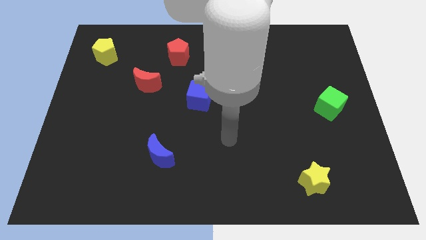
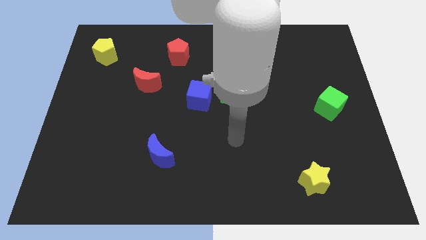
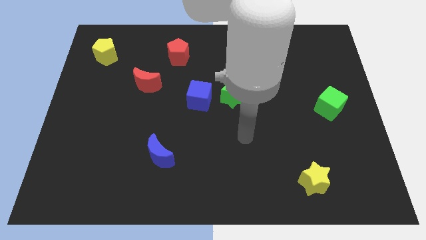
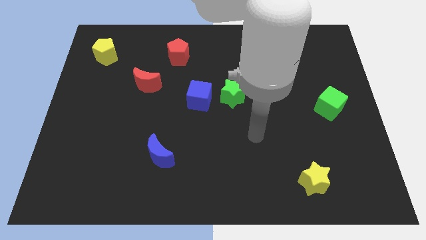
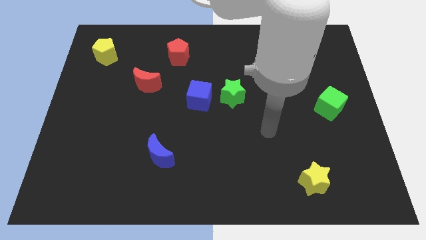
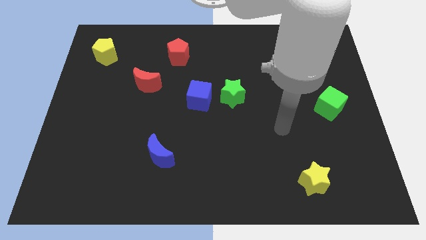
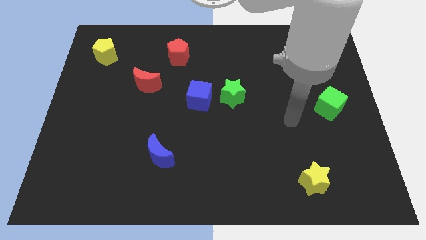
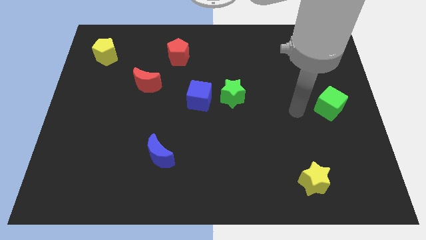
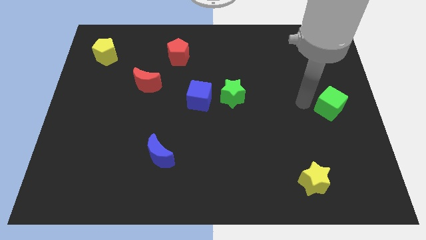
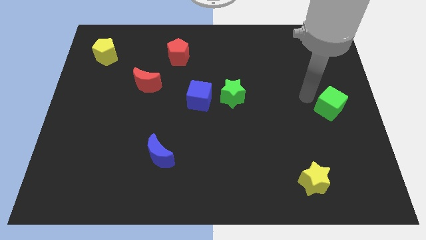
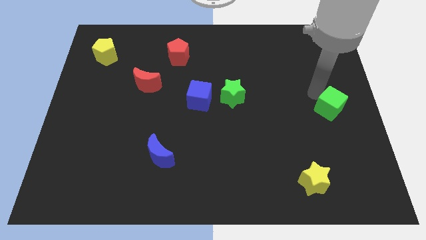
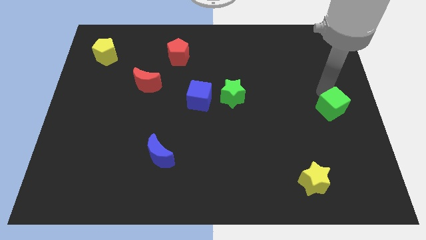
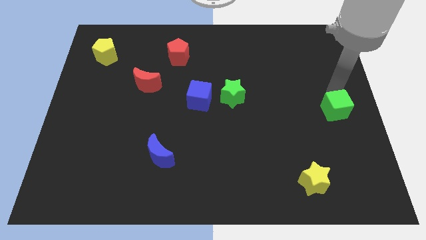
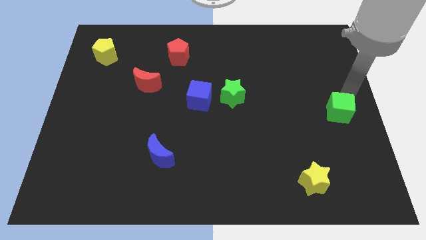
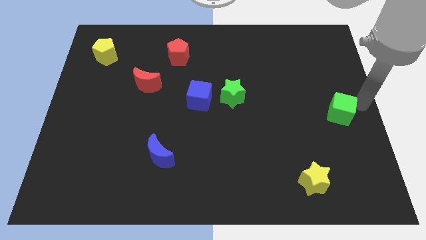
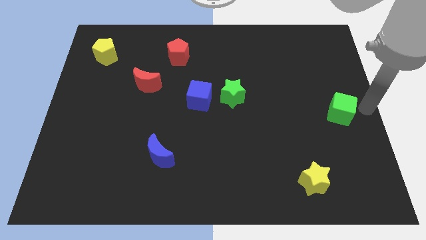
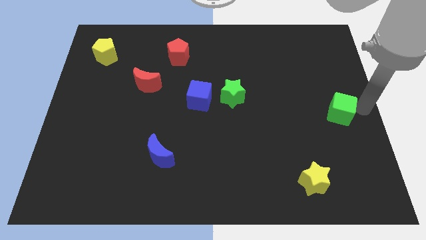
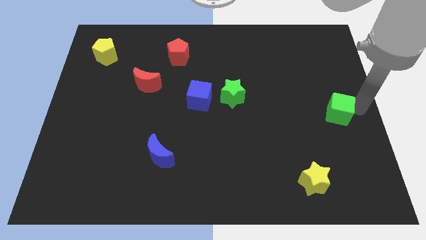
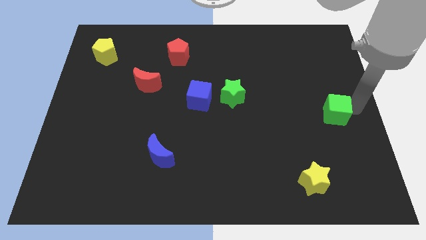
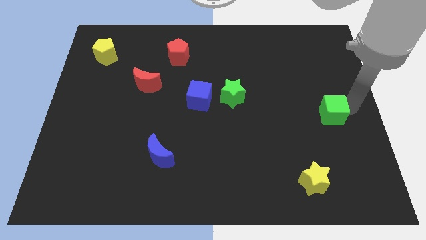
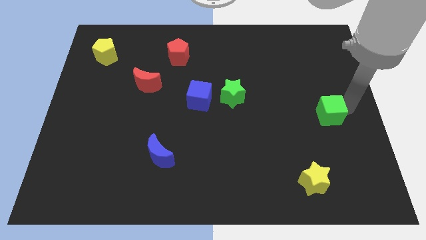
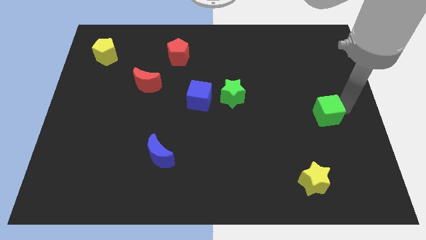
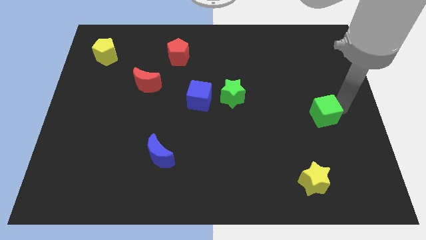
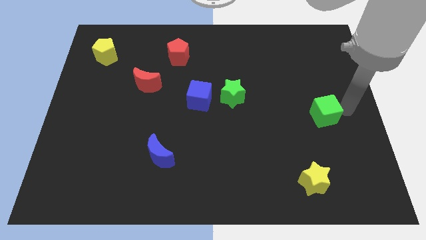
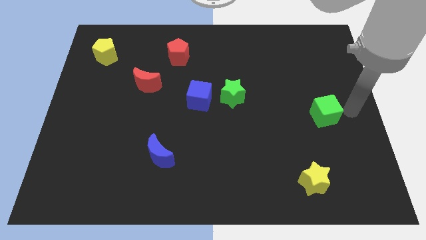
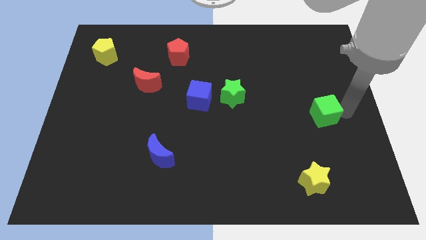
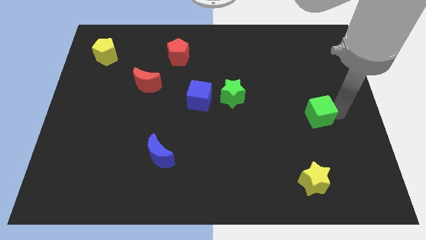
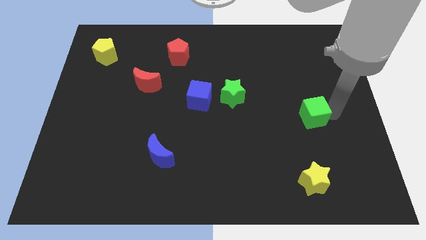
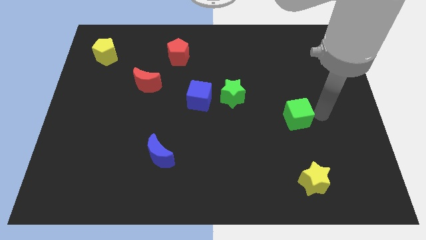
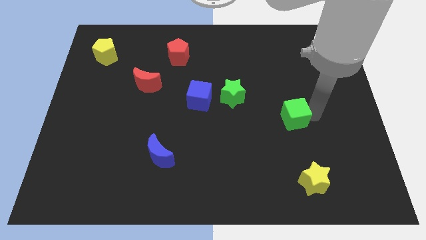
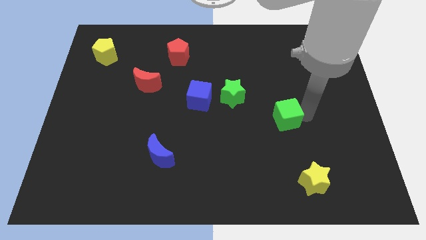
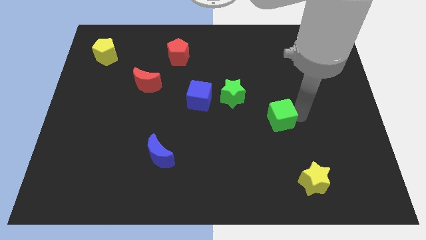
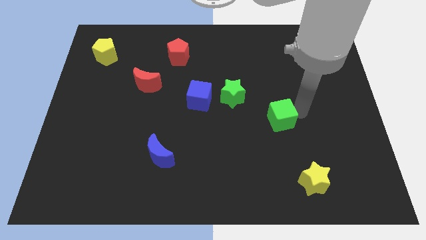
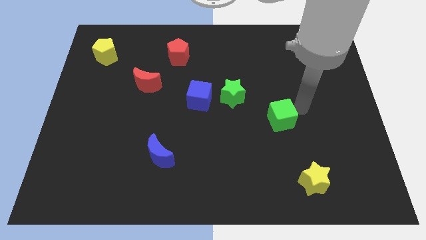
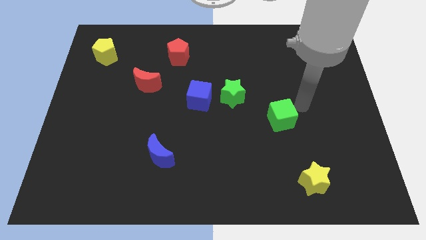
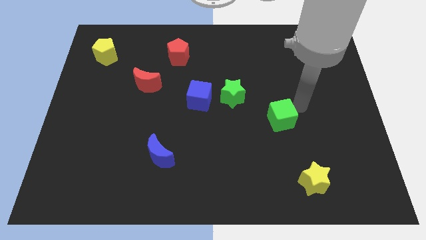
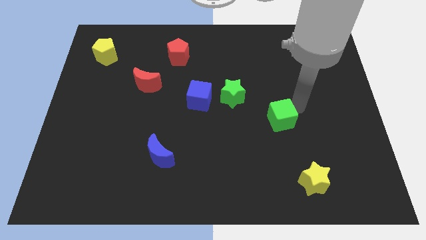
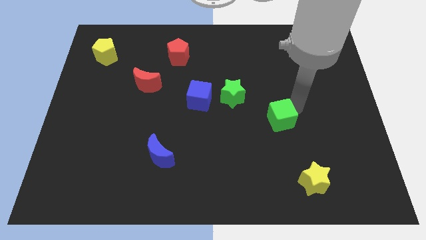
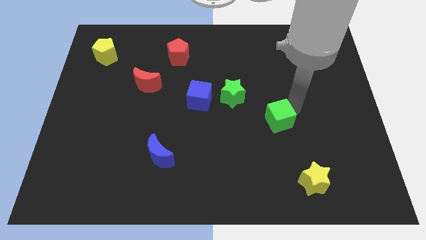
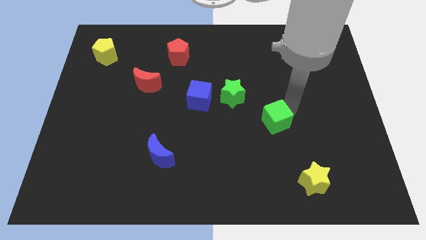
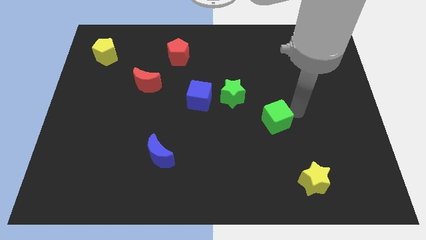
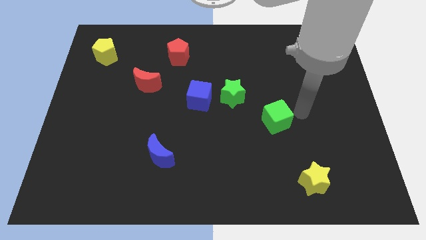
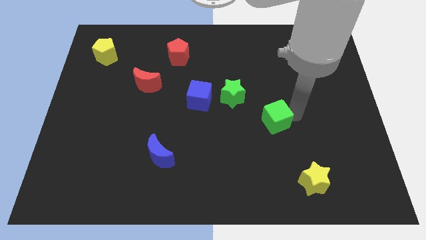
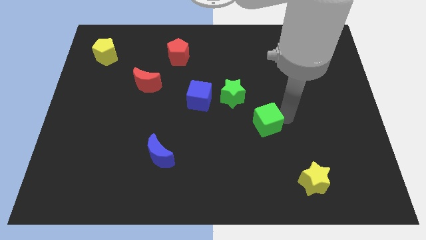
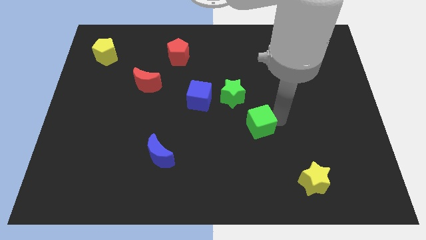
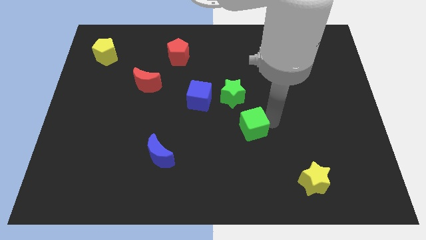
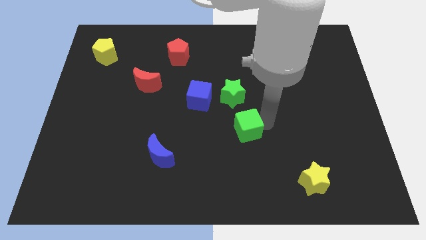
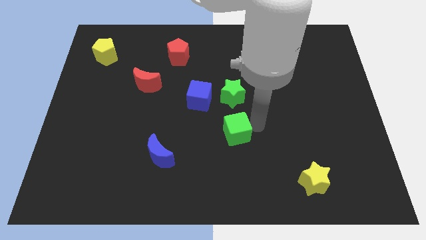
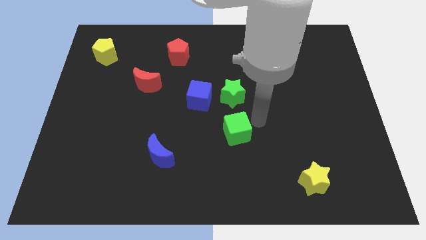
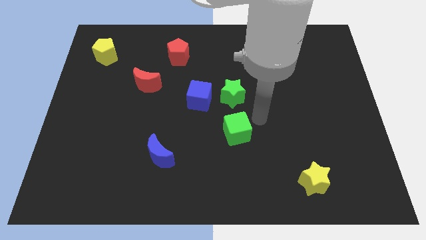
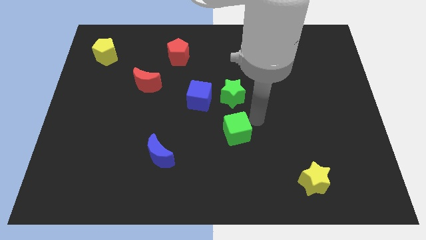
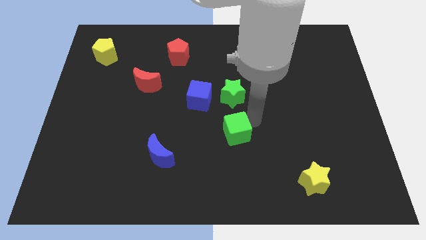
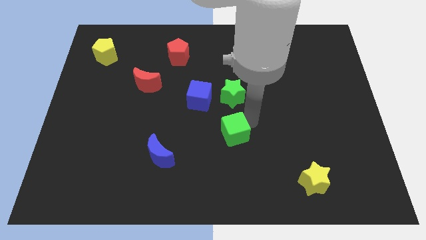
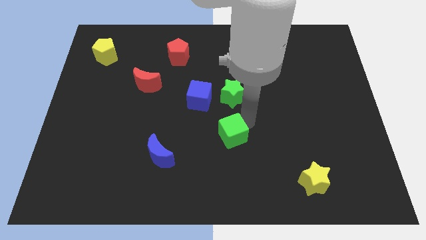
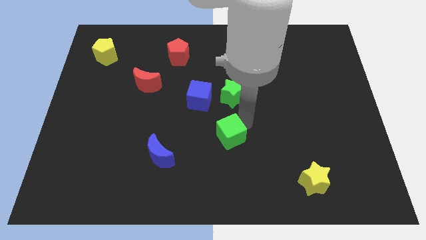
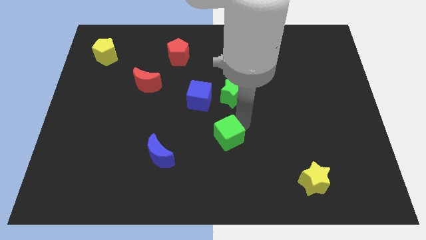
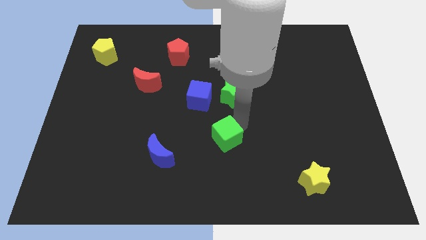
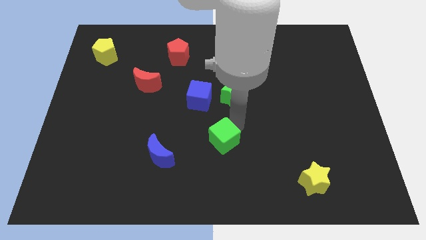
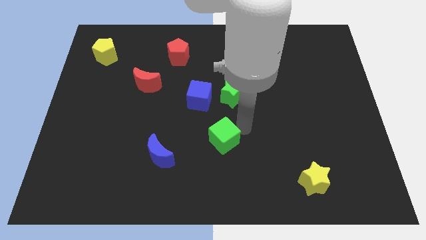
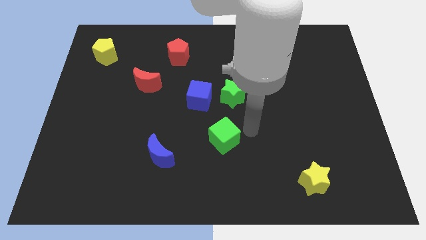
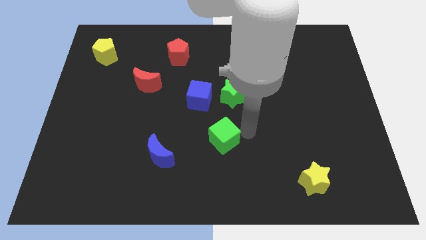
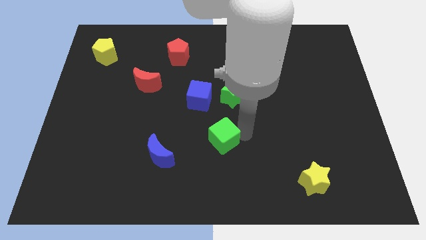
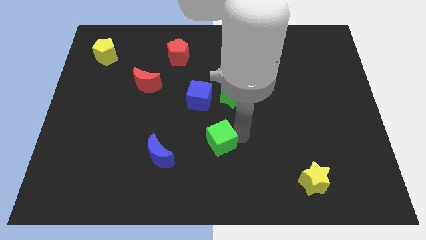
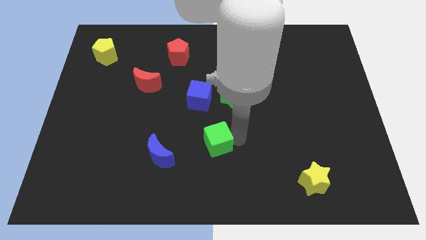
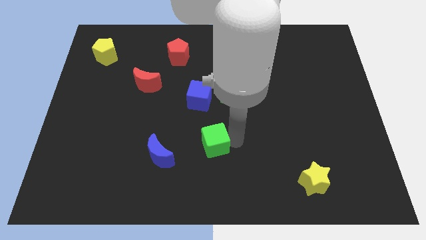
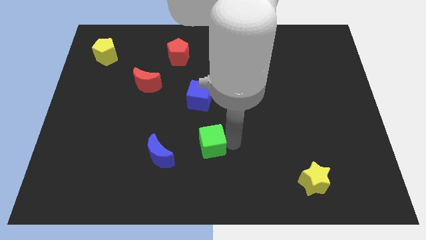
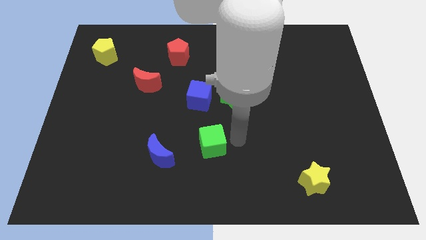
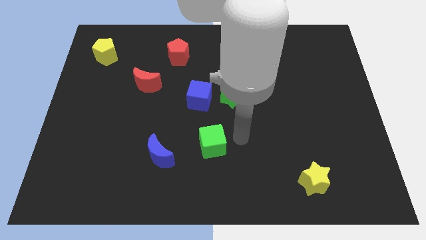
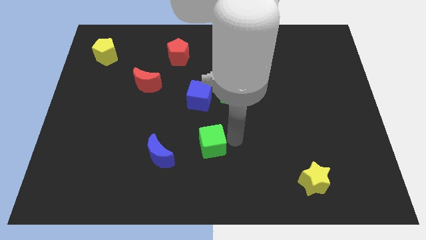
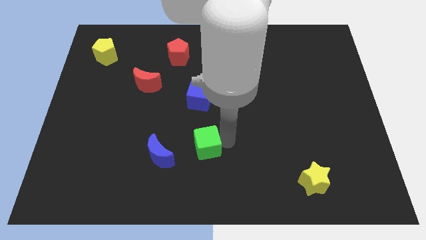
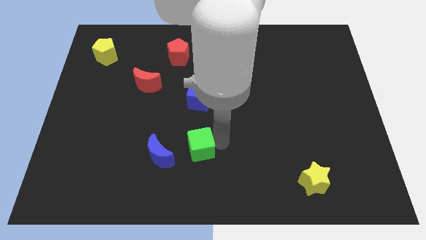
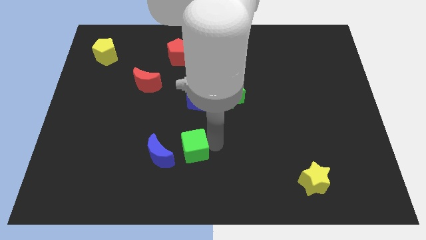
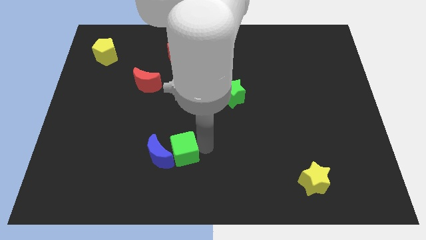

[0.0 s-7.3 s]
put the green cube close to the blue moon
